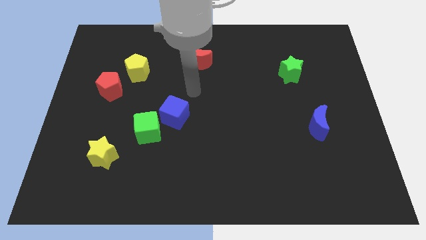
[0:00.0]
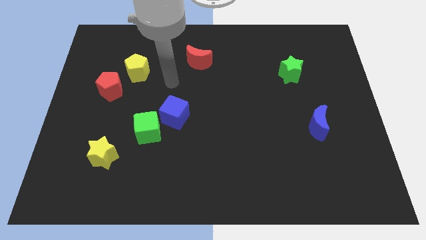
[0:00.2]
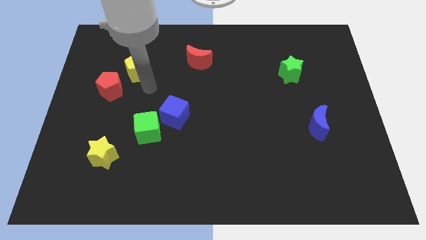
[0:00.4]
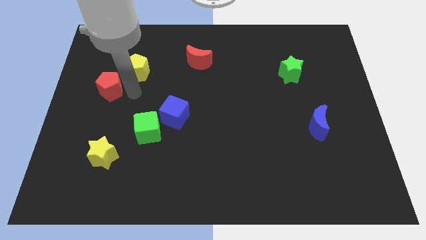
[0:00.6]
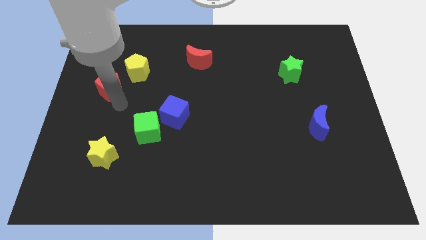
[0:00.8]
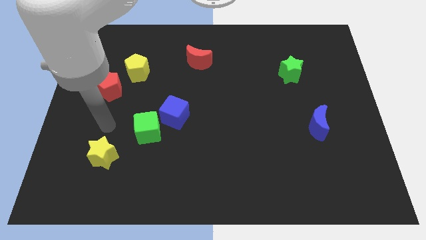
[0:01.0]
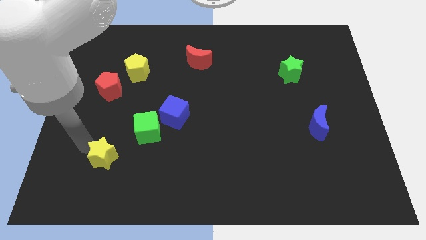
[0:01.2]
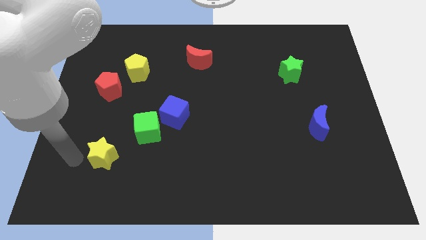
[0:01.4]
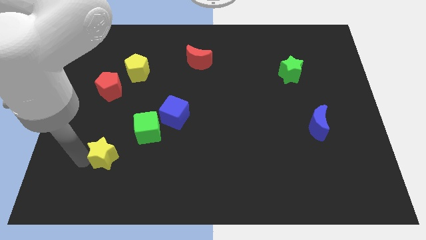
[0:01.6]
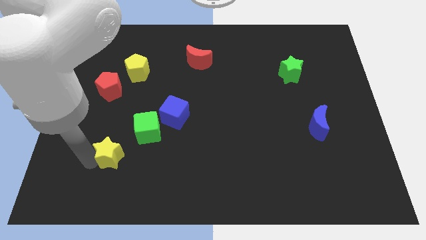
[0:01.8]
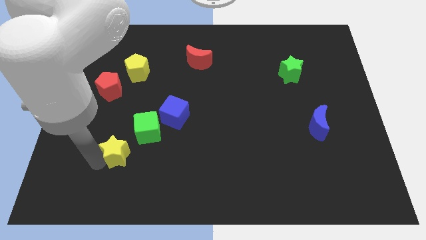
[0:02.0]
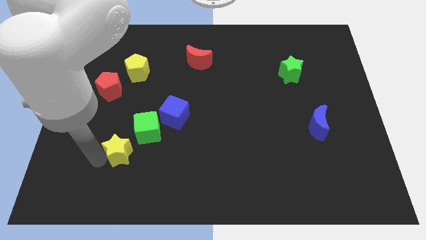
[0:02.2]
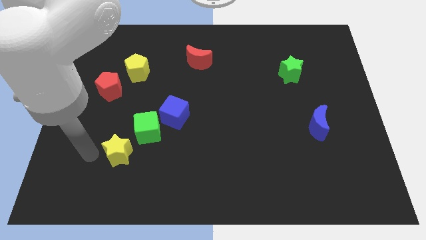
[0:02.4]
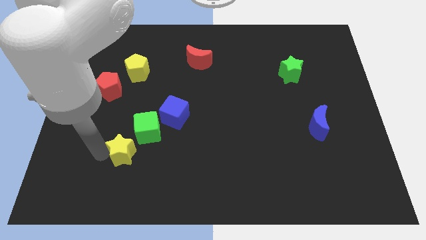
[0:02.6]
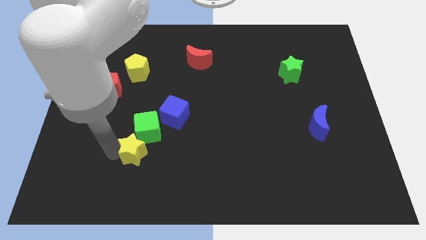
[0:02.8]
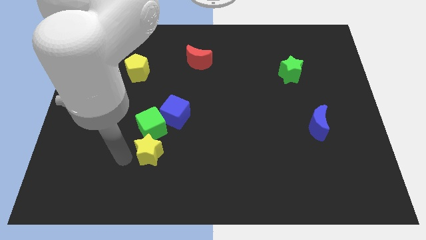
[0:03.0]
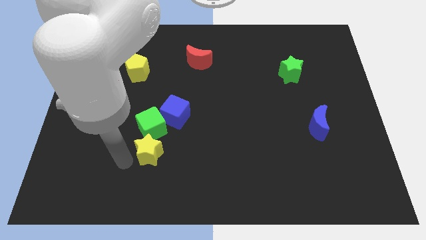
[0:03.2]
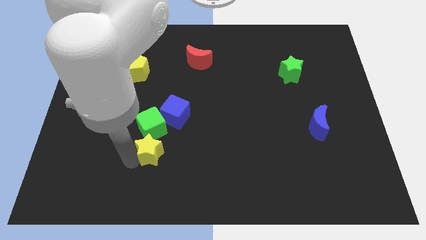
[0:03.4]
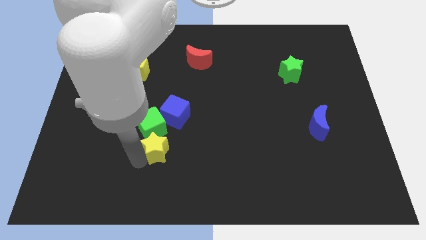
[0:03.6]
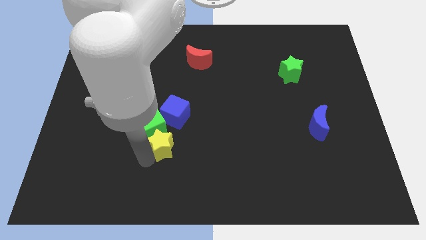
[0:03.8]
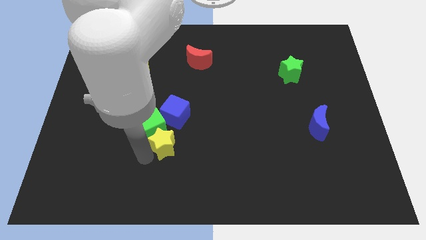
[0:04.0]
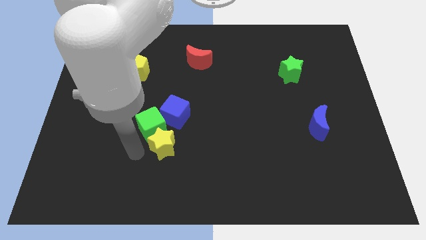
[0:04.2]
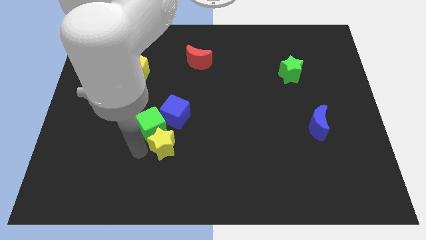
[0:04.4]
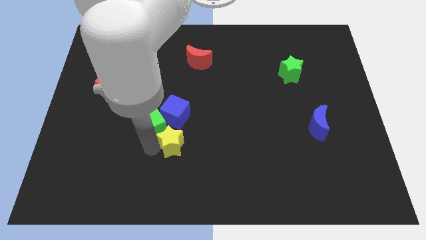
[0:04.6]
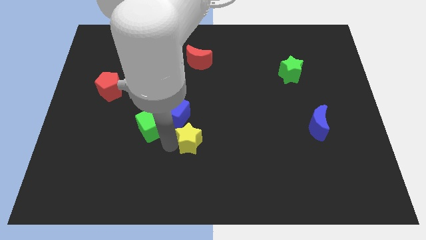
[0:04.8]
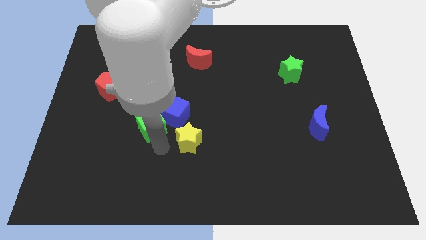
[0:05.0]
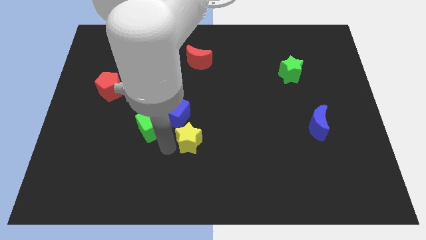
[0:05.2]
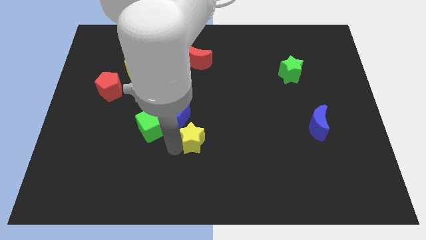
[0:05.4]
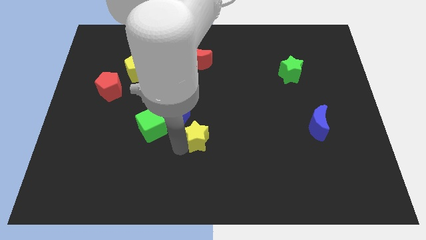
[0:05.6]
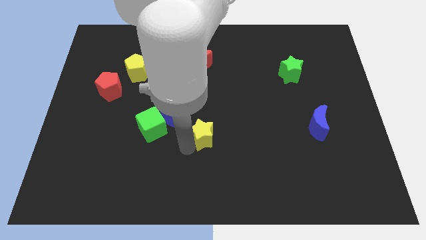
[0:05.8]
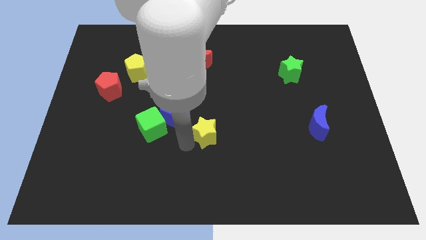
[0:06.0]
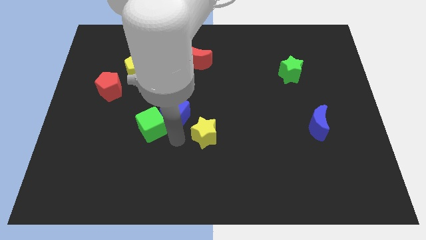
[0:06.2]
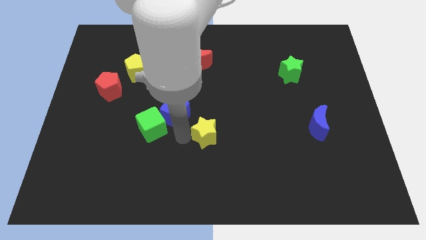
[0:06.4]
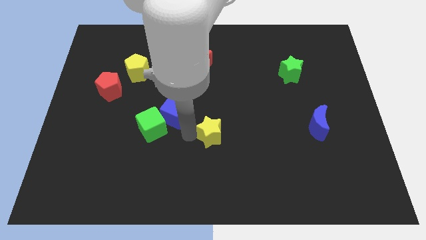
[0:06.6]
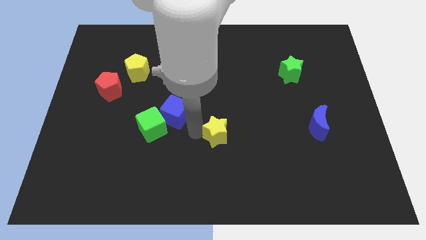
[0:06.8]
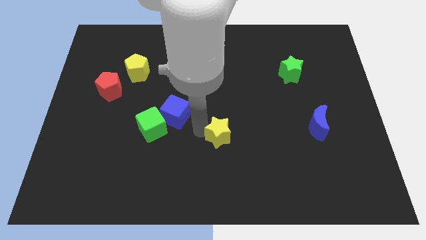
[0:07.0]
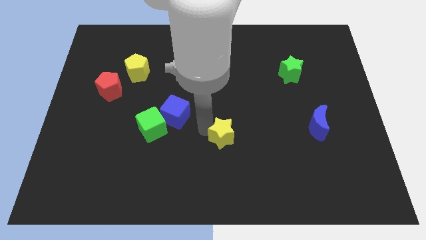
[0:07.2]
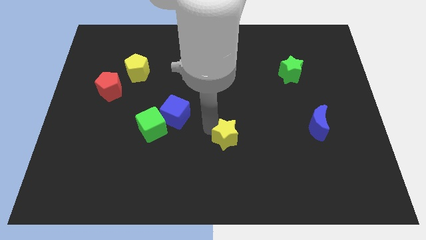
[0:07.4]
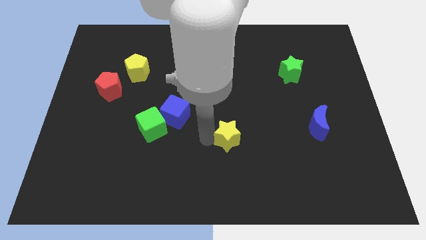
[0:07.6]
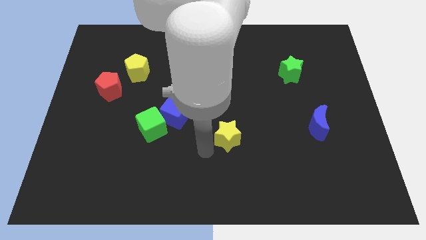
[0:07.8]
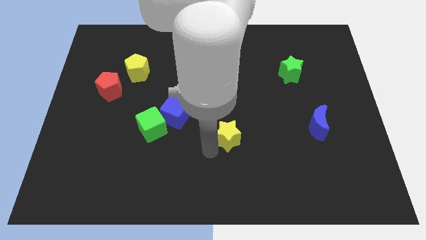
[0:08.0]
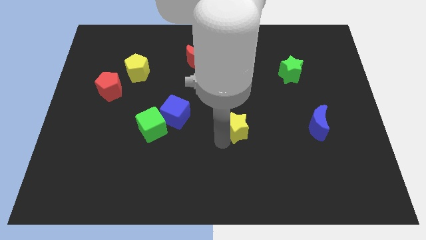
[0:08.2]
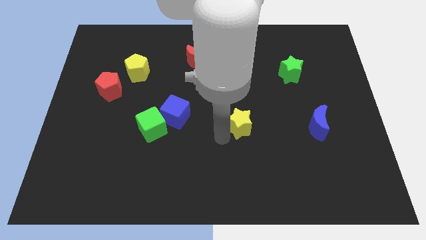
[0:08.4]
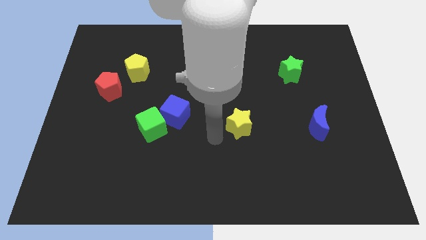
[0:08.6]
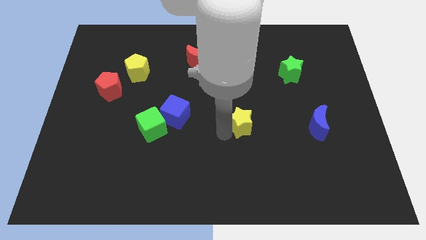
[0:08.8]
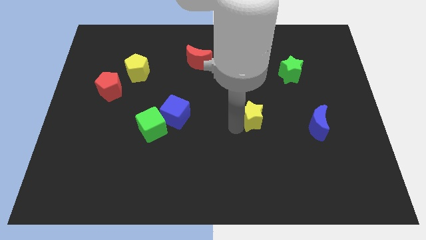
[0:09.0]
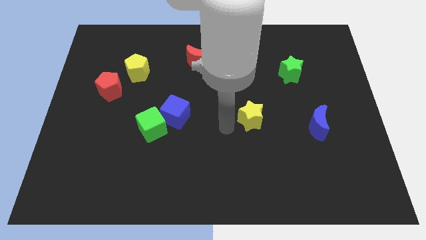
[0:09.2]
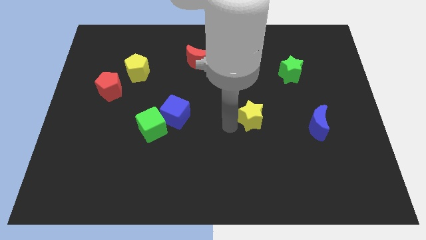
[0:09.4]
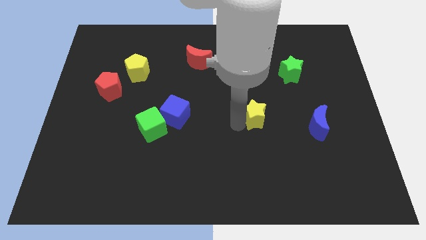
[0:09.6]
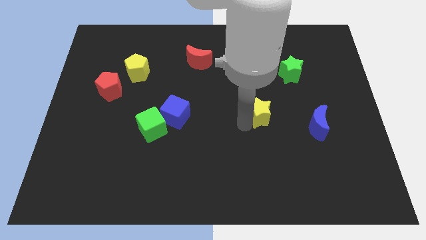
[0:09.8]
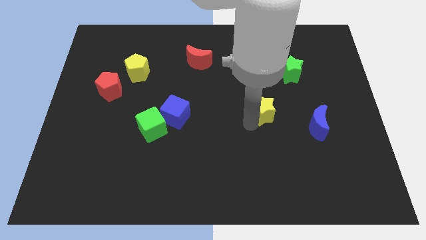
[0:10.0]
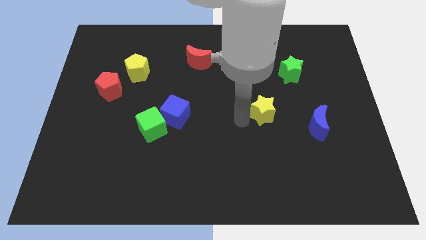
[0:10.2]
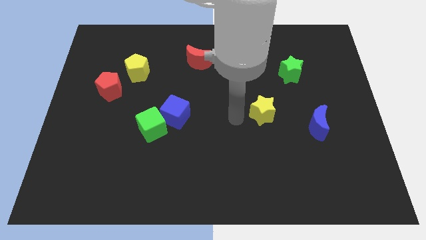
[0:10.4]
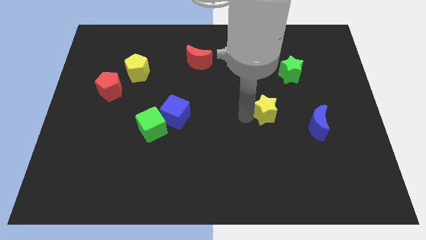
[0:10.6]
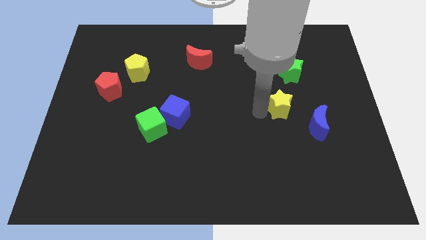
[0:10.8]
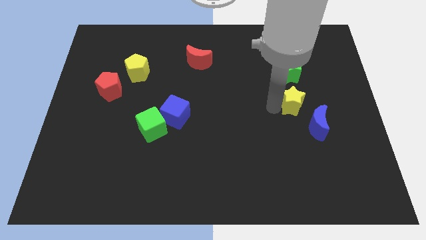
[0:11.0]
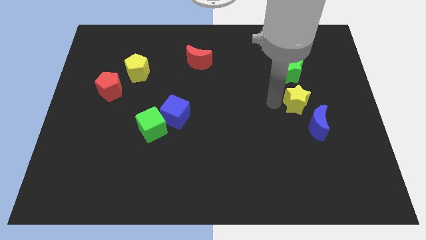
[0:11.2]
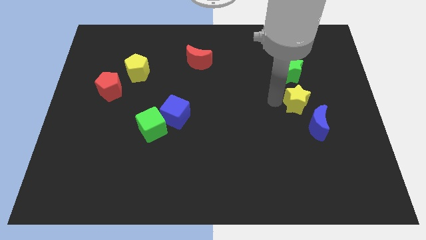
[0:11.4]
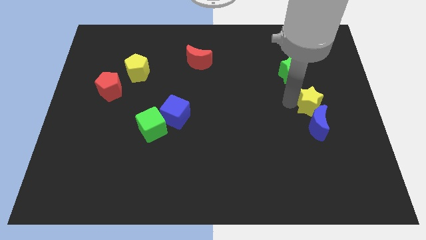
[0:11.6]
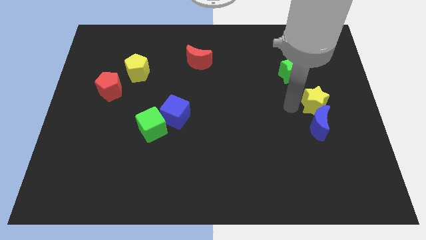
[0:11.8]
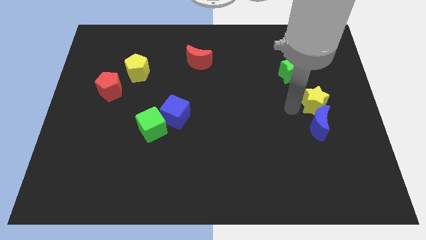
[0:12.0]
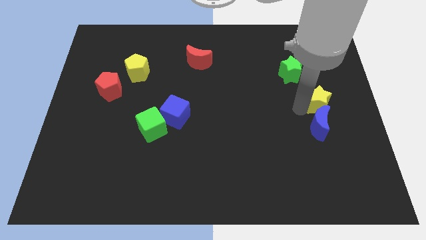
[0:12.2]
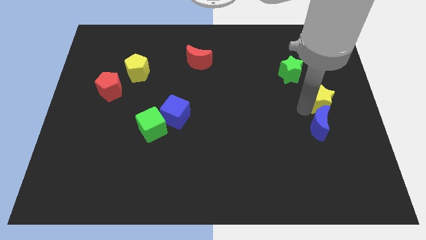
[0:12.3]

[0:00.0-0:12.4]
slide the yellow star to the center right
